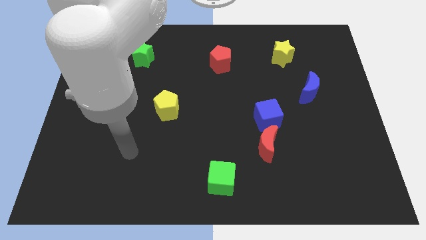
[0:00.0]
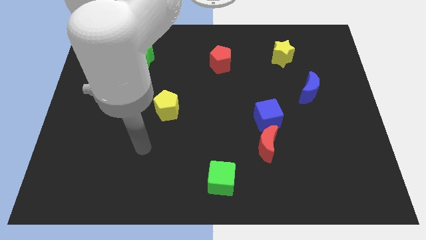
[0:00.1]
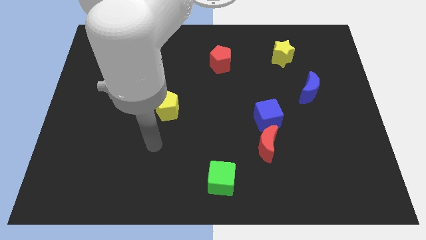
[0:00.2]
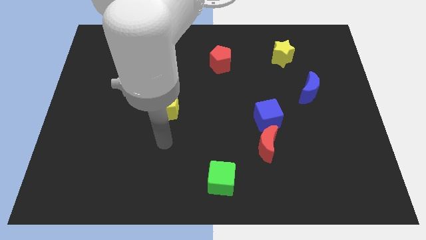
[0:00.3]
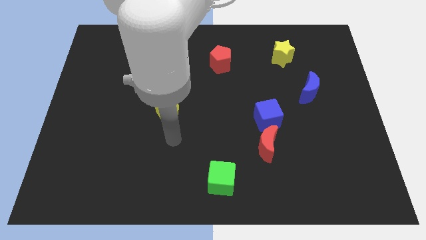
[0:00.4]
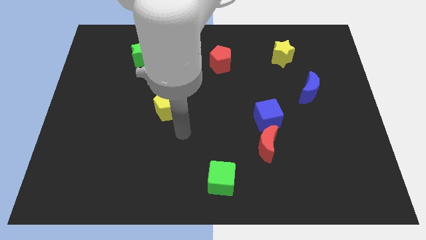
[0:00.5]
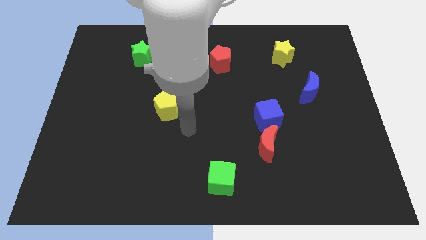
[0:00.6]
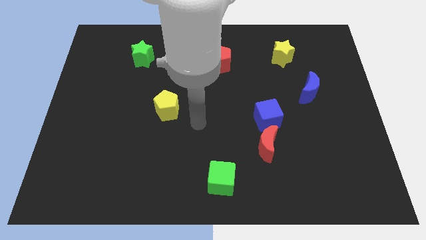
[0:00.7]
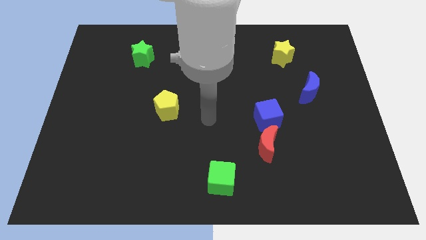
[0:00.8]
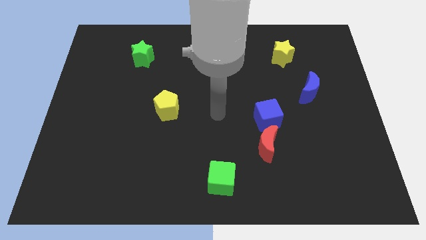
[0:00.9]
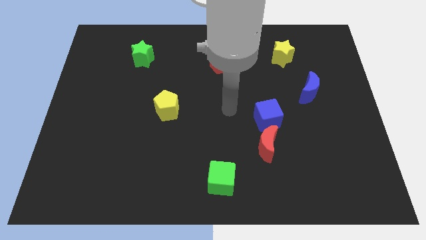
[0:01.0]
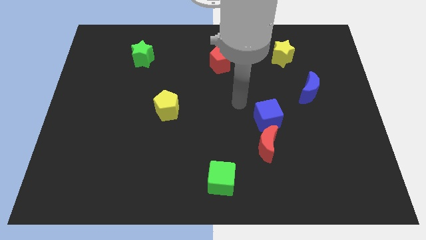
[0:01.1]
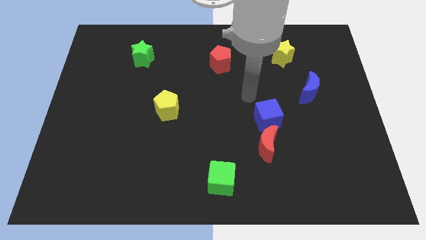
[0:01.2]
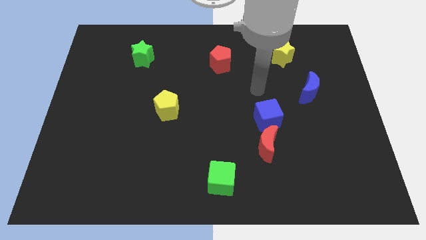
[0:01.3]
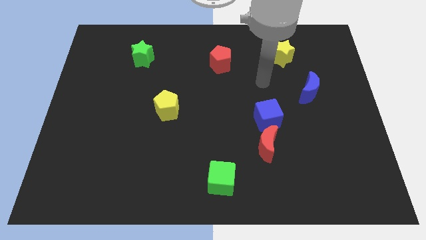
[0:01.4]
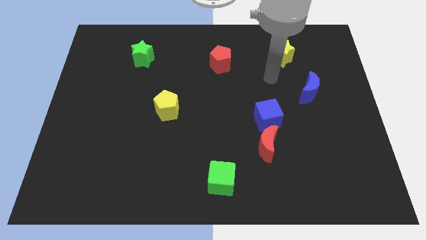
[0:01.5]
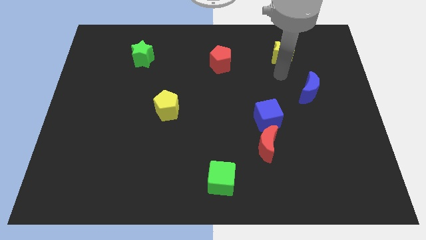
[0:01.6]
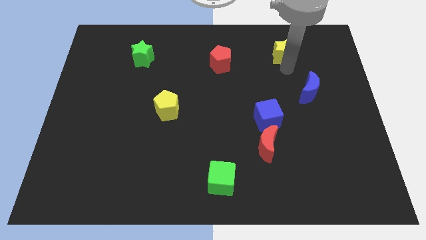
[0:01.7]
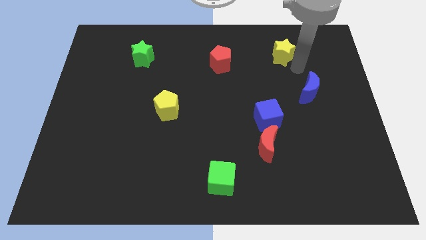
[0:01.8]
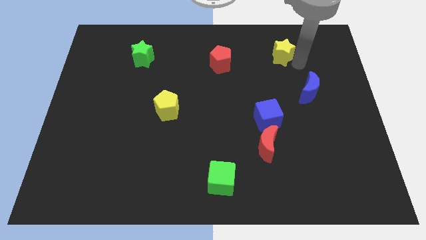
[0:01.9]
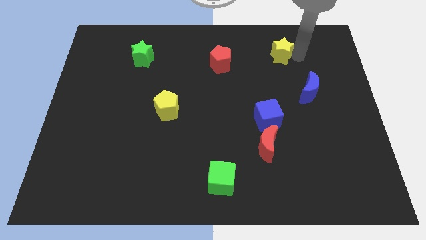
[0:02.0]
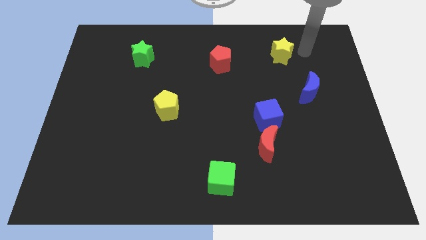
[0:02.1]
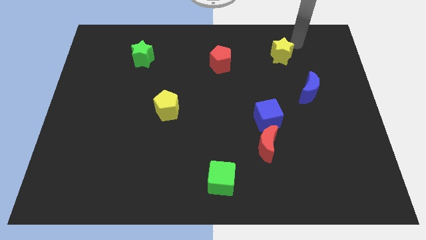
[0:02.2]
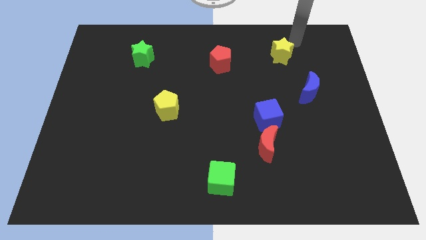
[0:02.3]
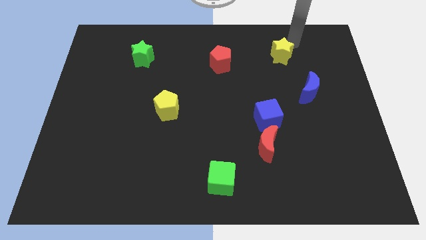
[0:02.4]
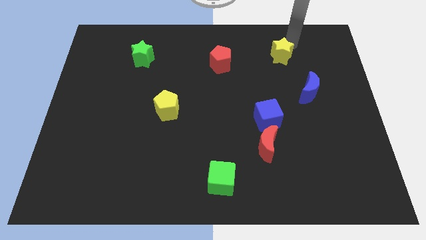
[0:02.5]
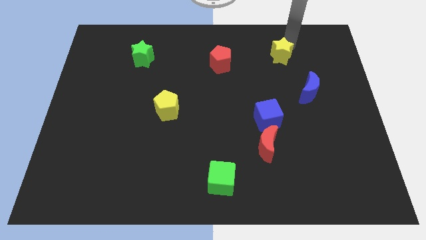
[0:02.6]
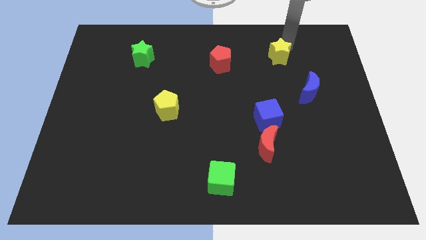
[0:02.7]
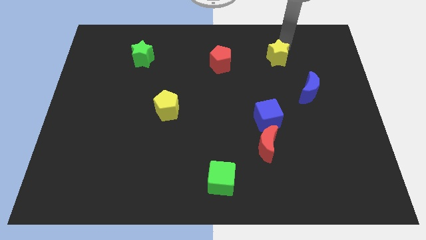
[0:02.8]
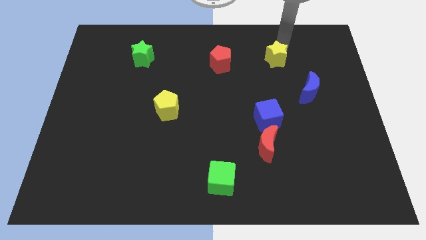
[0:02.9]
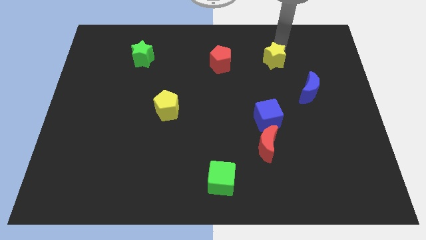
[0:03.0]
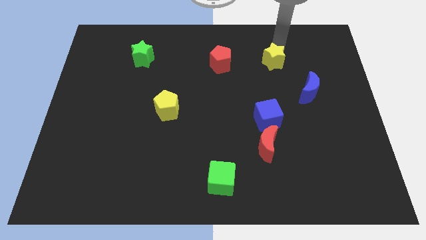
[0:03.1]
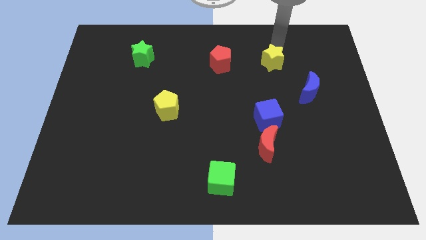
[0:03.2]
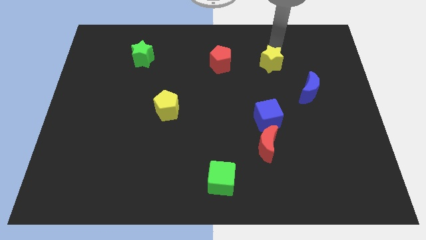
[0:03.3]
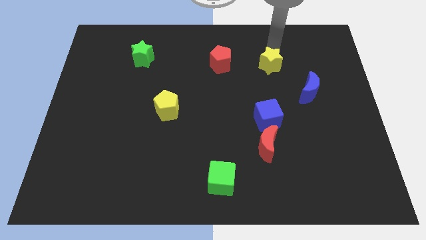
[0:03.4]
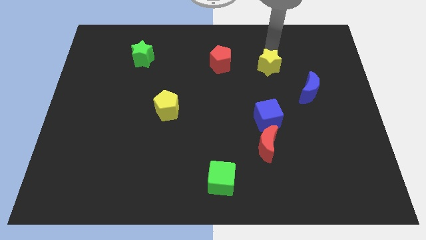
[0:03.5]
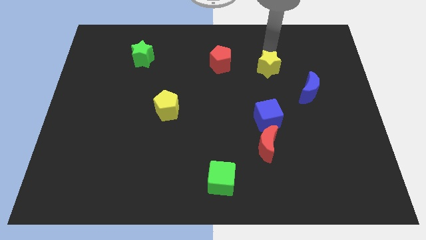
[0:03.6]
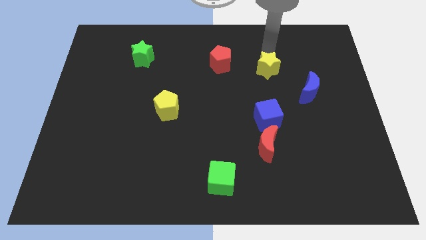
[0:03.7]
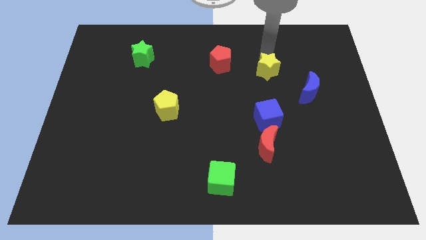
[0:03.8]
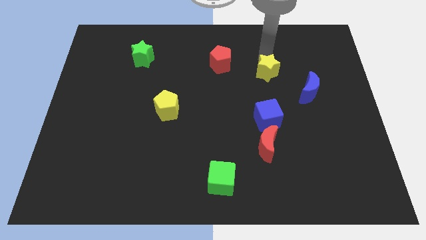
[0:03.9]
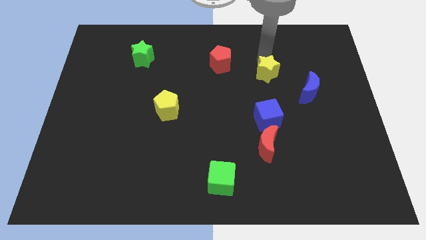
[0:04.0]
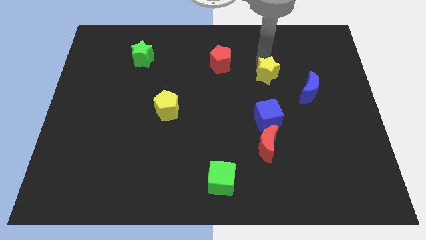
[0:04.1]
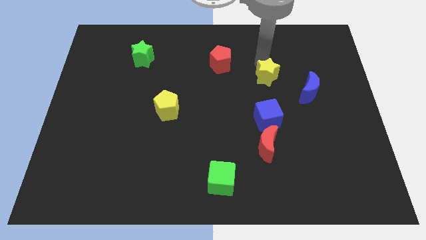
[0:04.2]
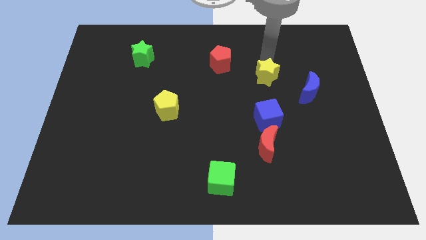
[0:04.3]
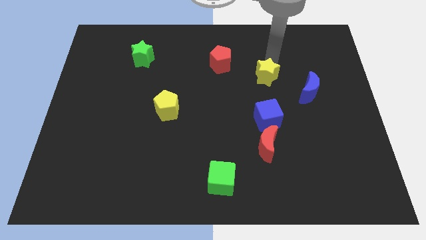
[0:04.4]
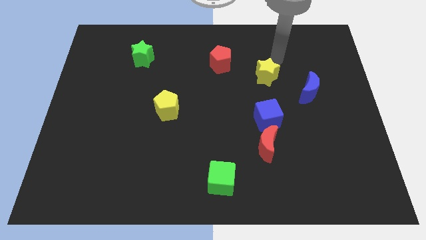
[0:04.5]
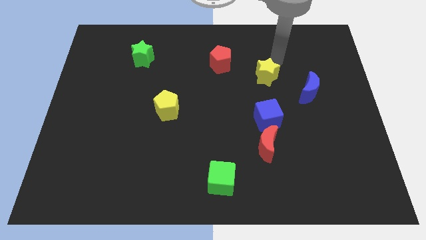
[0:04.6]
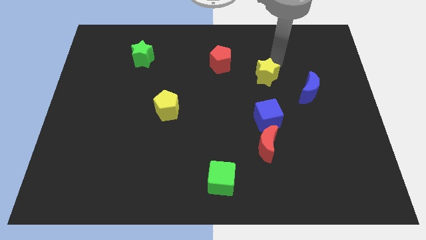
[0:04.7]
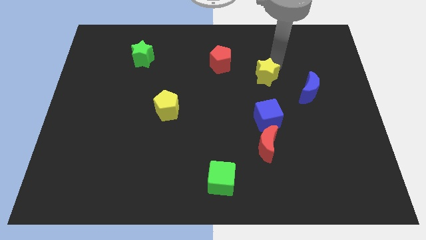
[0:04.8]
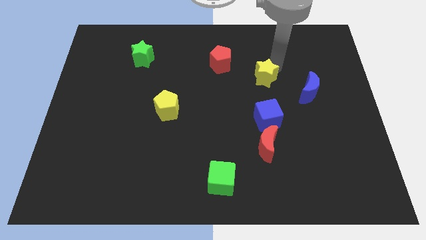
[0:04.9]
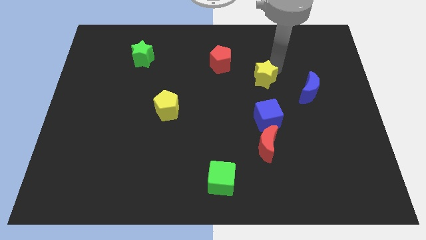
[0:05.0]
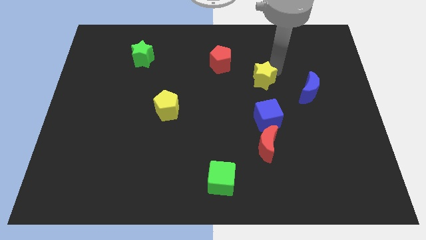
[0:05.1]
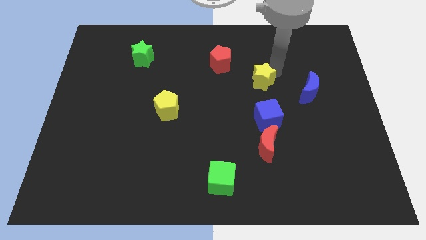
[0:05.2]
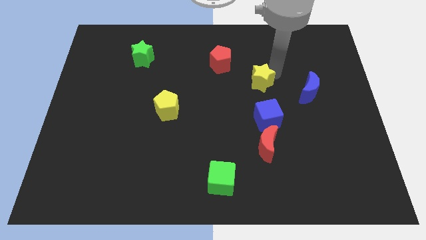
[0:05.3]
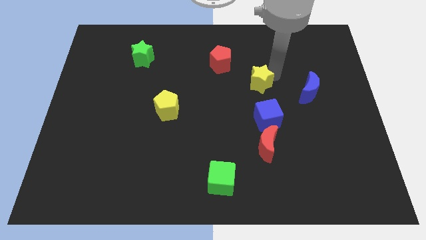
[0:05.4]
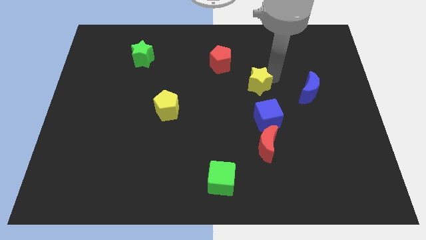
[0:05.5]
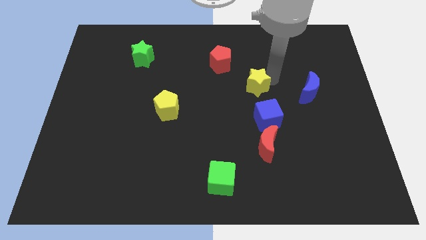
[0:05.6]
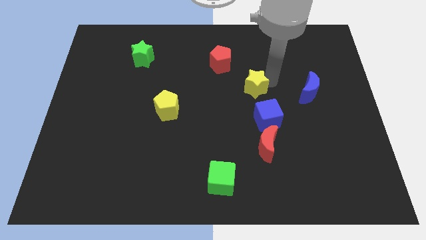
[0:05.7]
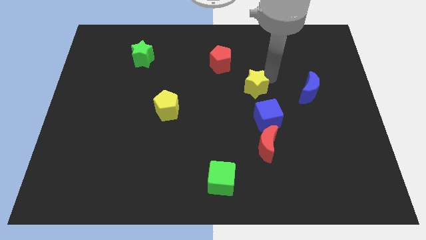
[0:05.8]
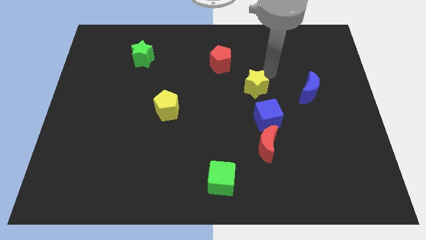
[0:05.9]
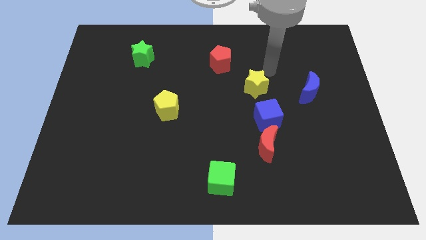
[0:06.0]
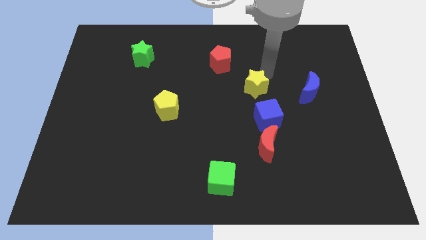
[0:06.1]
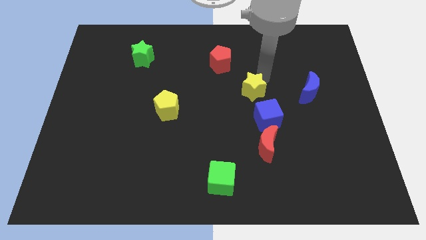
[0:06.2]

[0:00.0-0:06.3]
put the yellow star diagonally up and to the left of the blue cube
